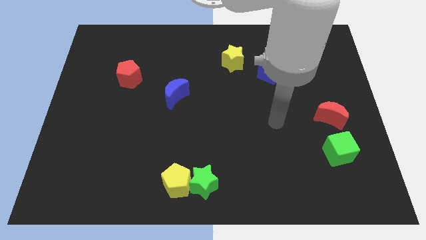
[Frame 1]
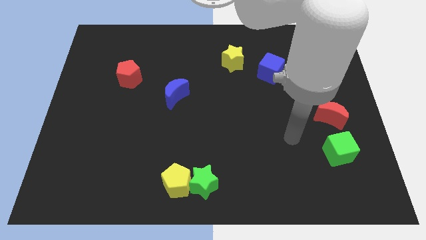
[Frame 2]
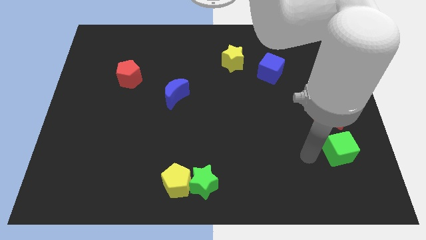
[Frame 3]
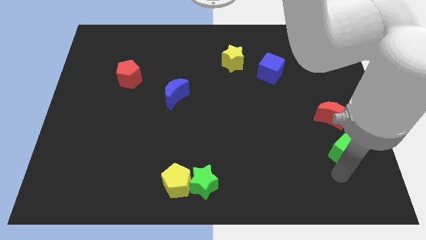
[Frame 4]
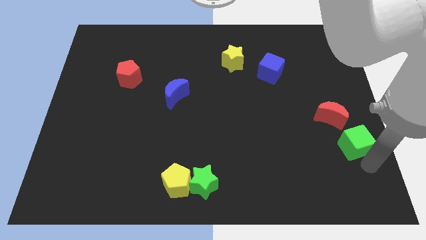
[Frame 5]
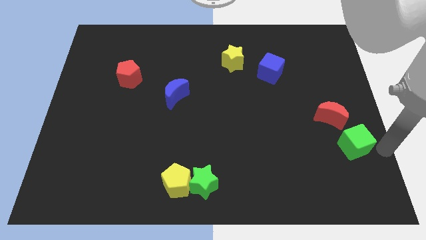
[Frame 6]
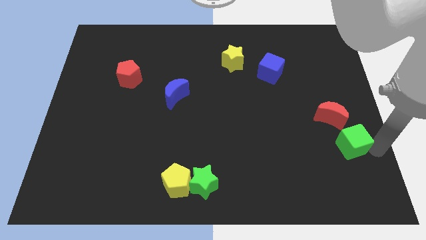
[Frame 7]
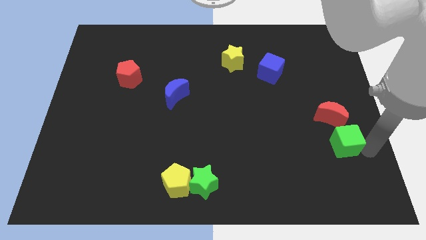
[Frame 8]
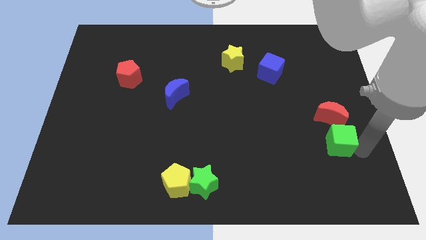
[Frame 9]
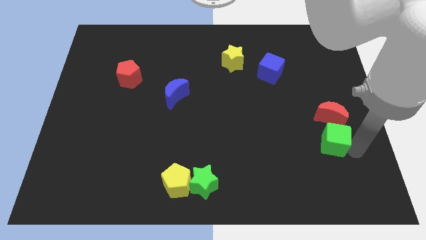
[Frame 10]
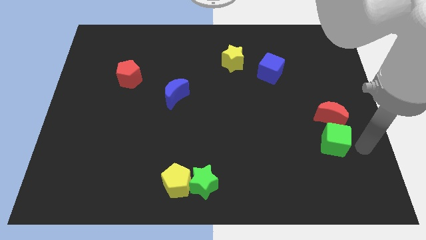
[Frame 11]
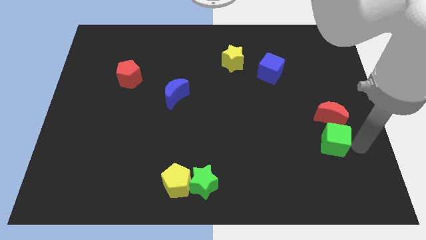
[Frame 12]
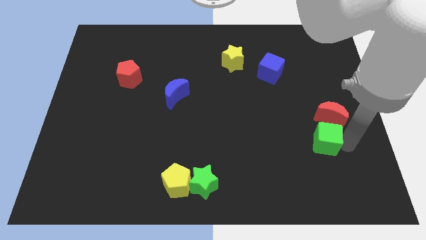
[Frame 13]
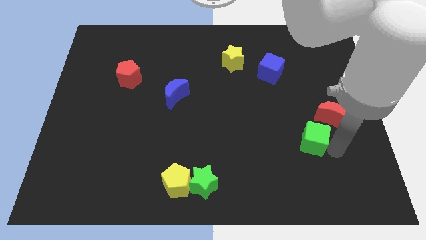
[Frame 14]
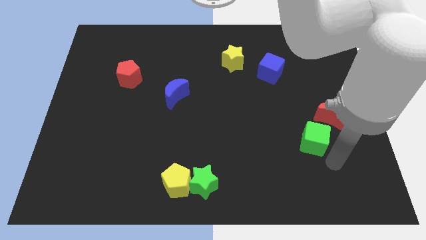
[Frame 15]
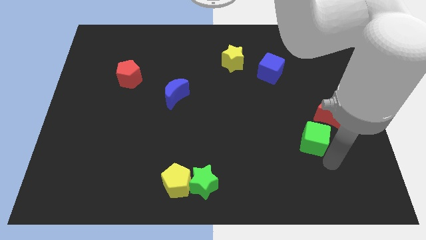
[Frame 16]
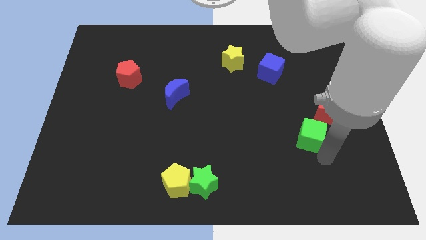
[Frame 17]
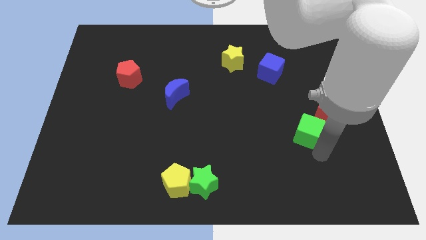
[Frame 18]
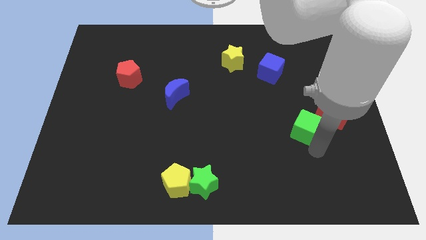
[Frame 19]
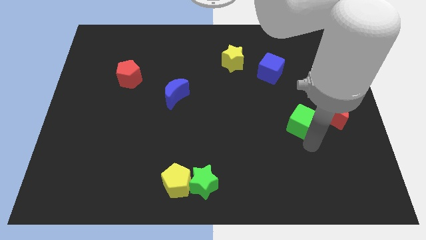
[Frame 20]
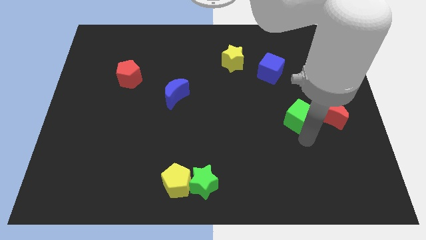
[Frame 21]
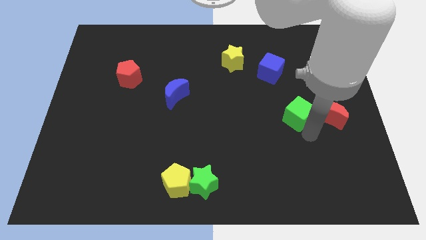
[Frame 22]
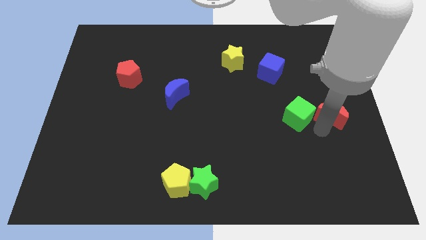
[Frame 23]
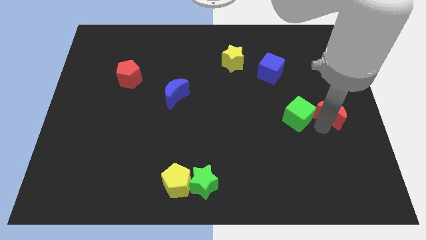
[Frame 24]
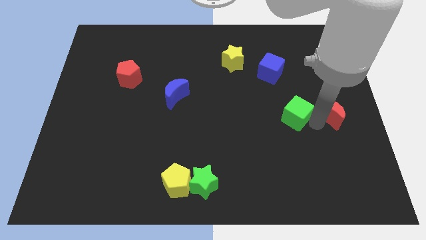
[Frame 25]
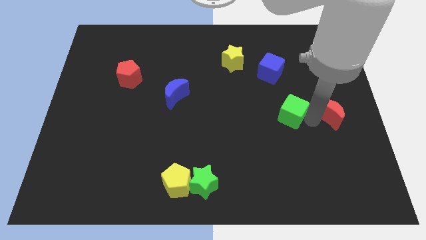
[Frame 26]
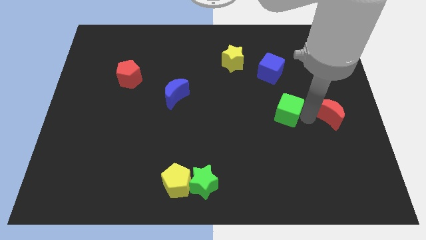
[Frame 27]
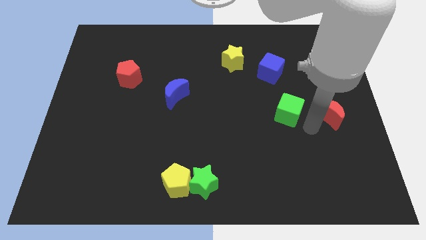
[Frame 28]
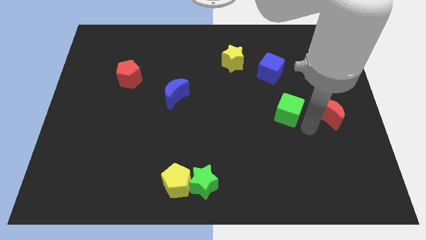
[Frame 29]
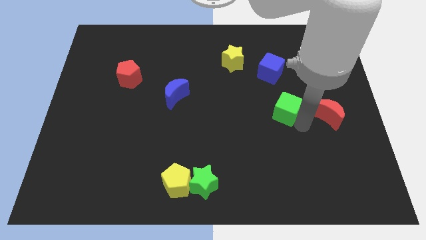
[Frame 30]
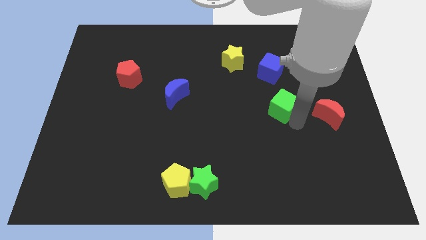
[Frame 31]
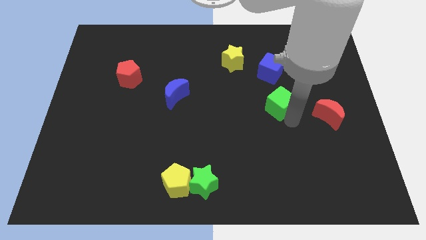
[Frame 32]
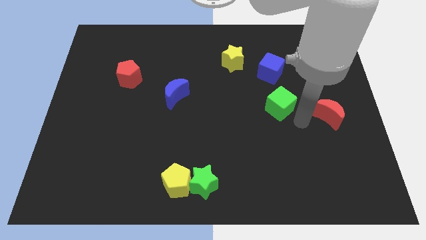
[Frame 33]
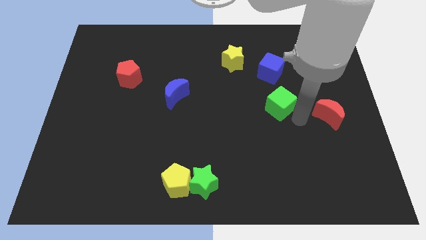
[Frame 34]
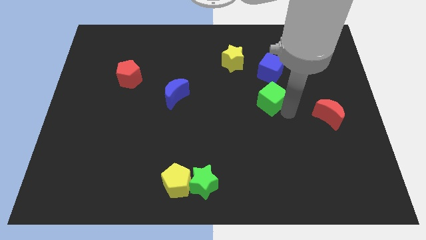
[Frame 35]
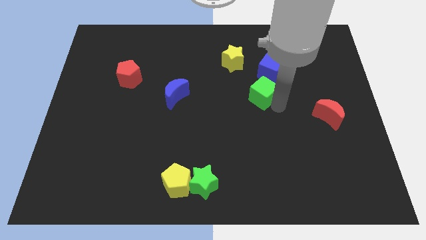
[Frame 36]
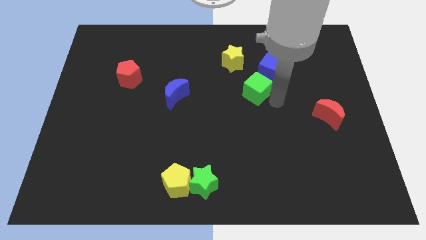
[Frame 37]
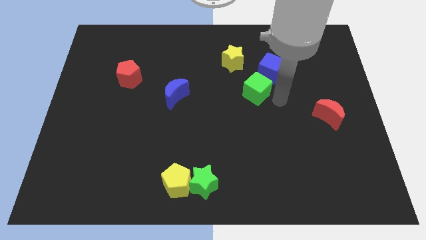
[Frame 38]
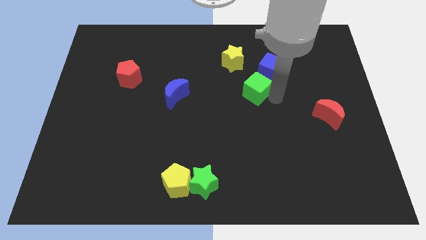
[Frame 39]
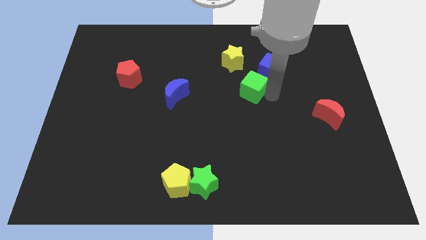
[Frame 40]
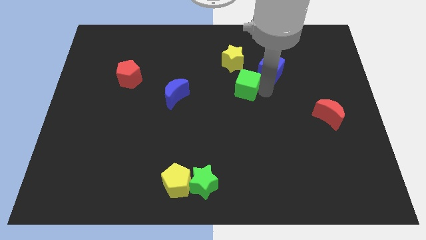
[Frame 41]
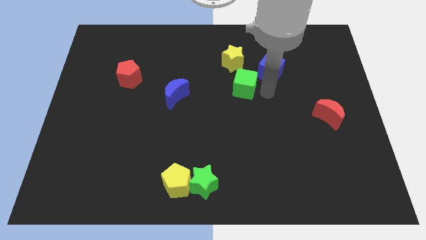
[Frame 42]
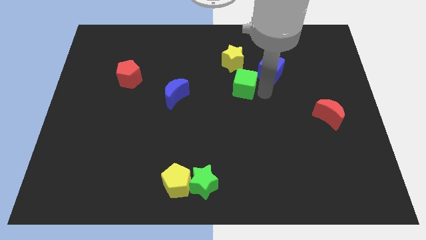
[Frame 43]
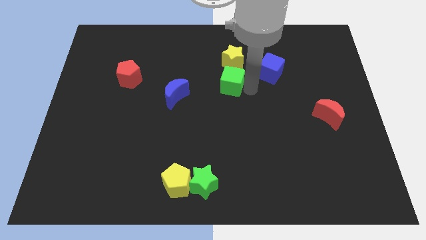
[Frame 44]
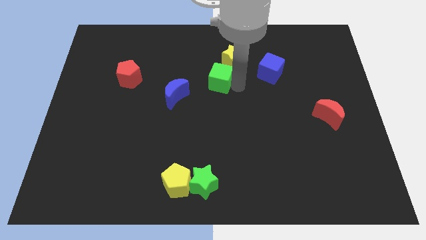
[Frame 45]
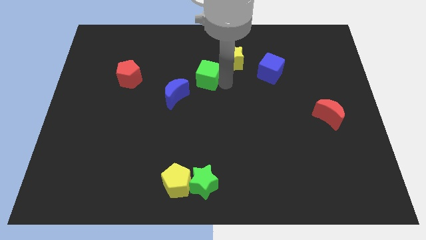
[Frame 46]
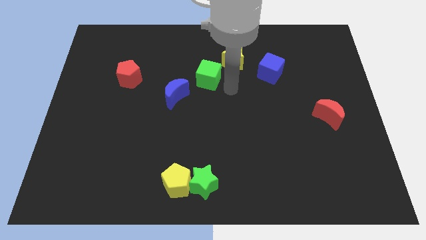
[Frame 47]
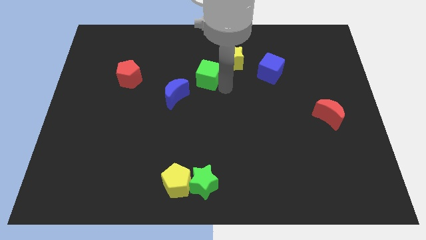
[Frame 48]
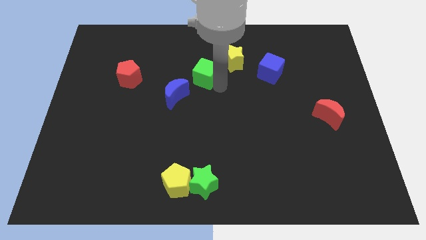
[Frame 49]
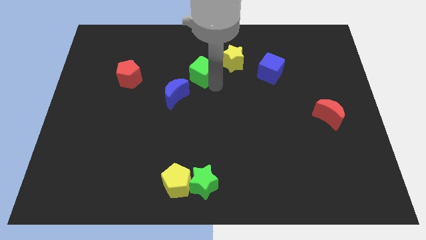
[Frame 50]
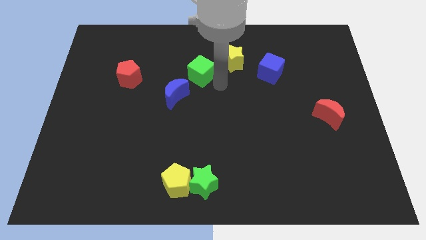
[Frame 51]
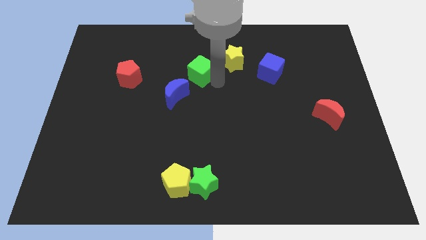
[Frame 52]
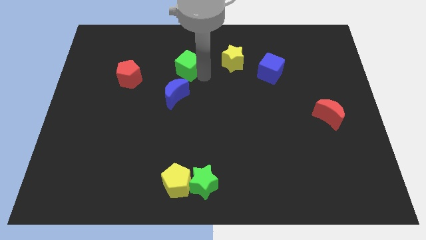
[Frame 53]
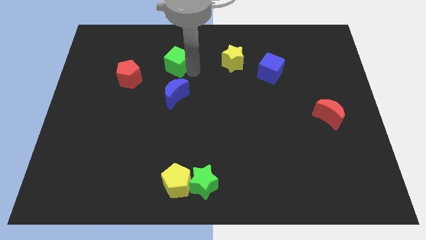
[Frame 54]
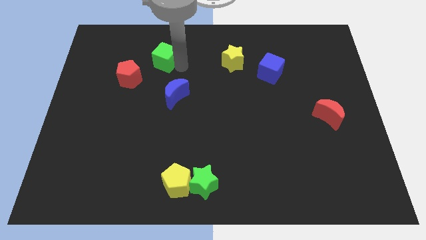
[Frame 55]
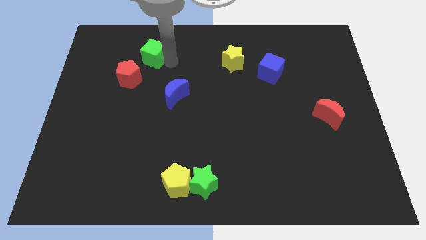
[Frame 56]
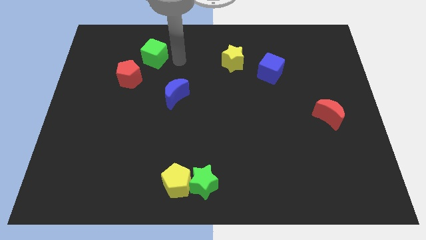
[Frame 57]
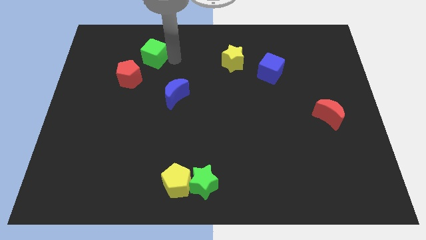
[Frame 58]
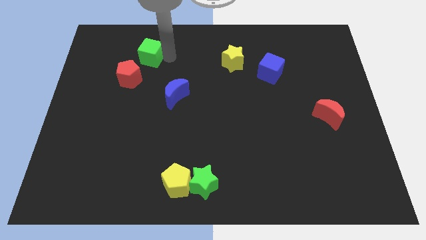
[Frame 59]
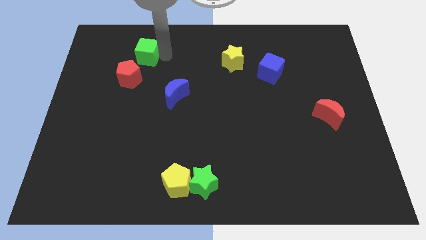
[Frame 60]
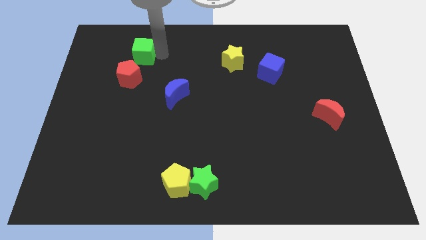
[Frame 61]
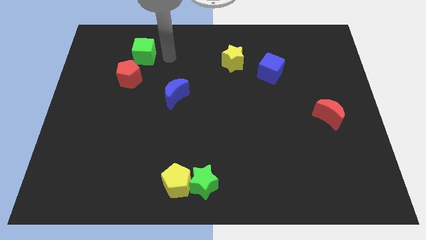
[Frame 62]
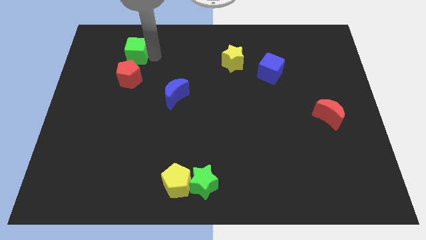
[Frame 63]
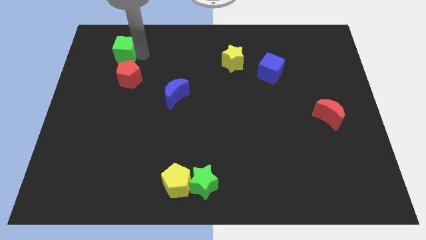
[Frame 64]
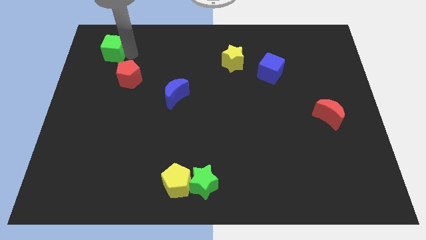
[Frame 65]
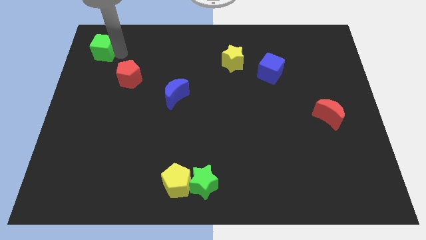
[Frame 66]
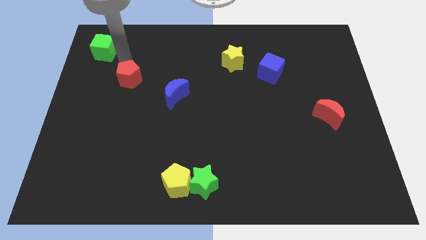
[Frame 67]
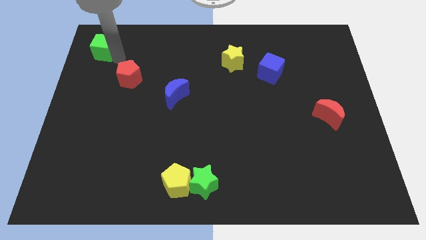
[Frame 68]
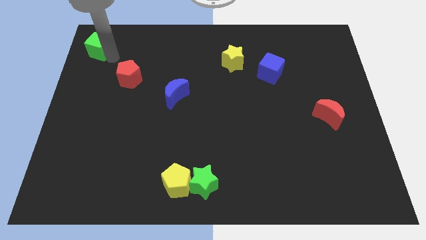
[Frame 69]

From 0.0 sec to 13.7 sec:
move the green cube to the top left
